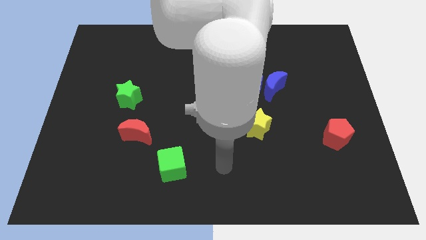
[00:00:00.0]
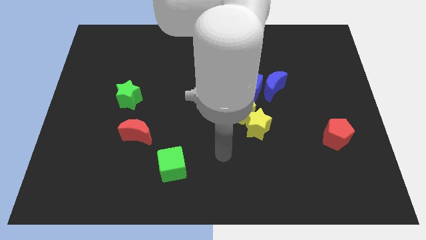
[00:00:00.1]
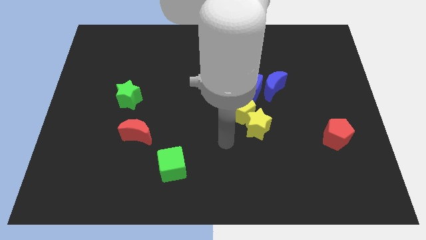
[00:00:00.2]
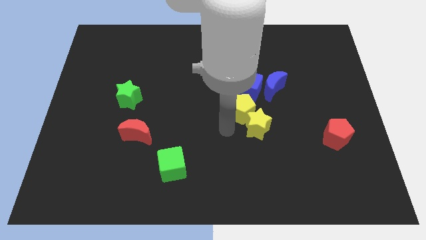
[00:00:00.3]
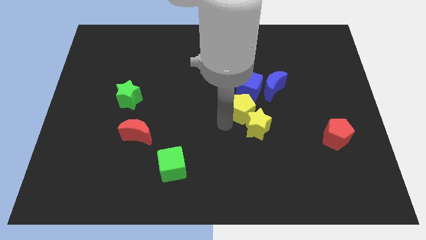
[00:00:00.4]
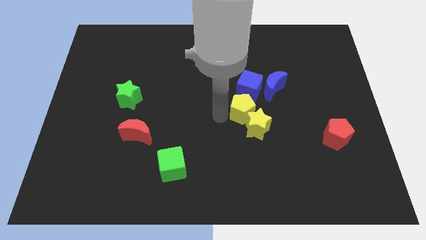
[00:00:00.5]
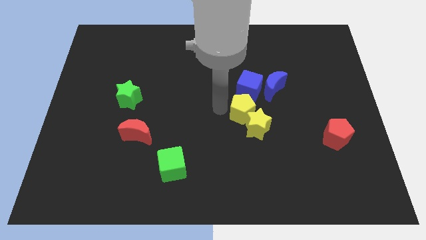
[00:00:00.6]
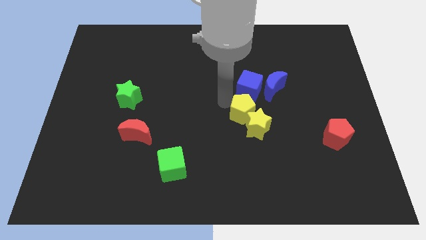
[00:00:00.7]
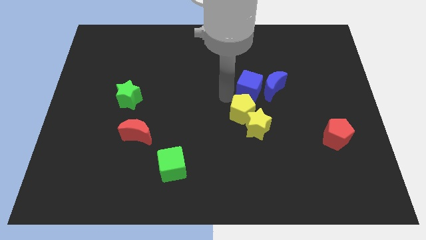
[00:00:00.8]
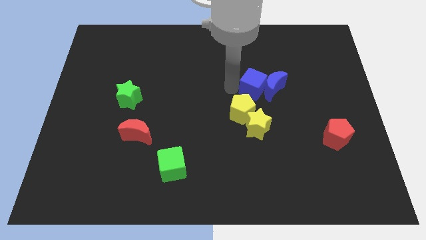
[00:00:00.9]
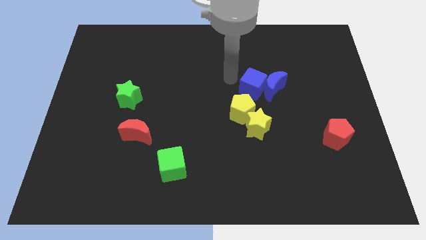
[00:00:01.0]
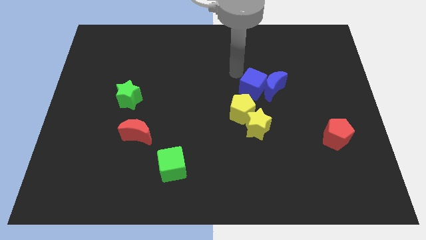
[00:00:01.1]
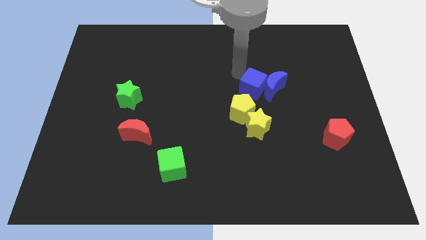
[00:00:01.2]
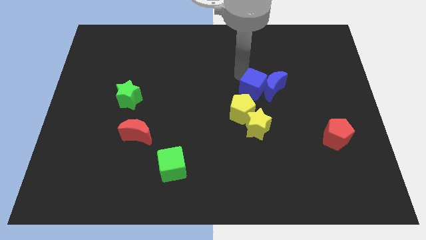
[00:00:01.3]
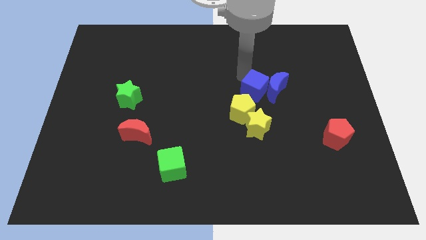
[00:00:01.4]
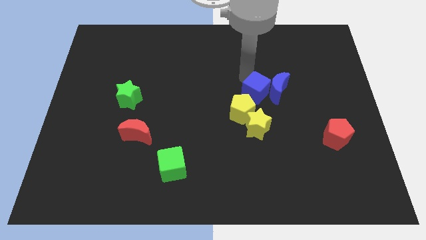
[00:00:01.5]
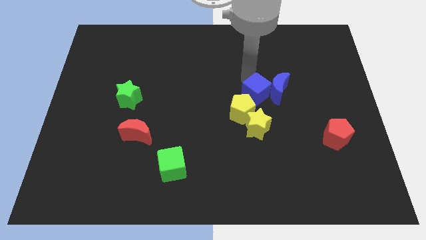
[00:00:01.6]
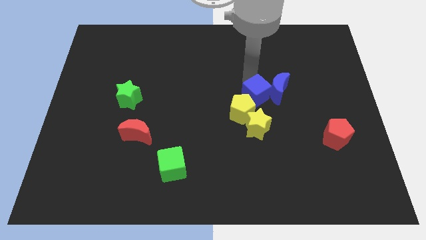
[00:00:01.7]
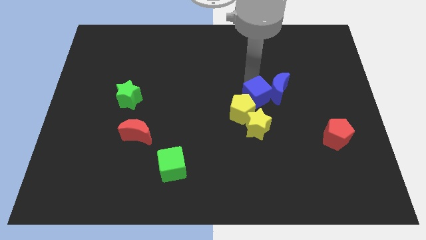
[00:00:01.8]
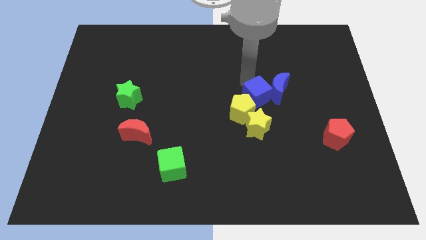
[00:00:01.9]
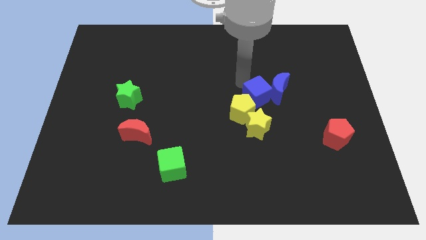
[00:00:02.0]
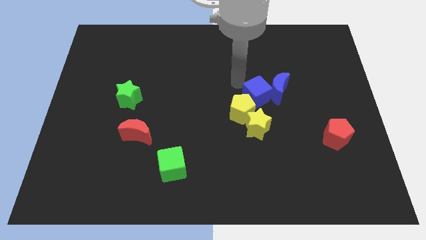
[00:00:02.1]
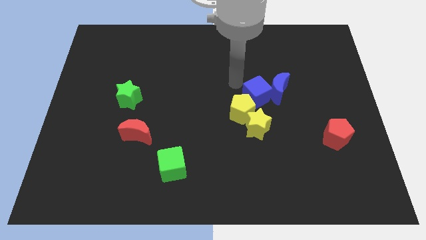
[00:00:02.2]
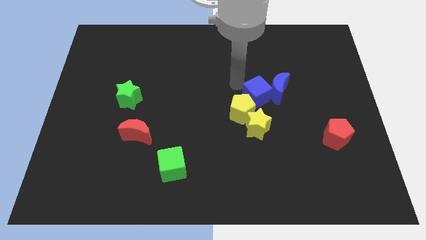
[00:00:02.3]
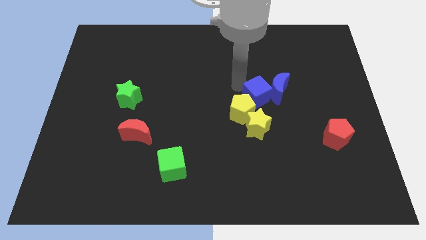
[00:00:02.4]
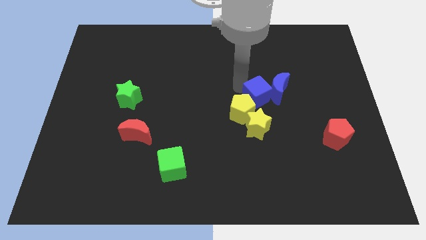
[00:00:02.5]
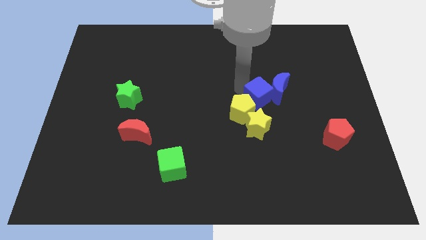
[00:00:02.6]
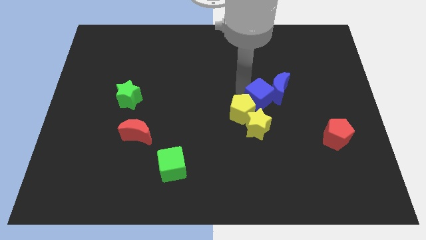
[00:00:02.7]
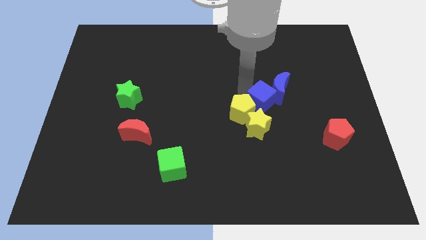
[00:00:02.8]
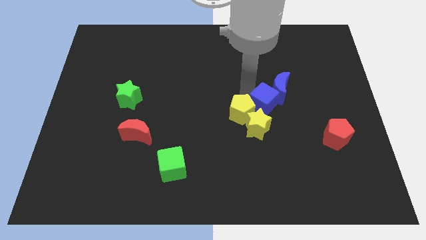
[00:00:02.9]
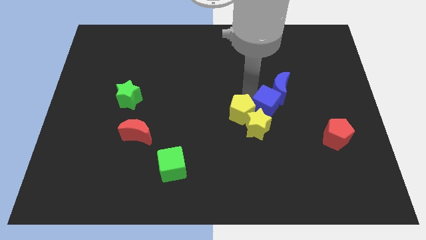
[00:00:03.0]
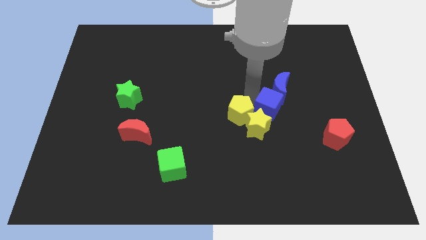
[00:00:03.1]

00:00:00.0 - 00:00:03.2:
slightly push the blue cube down and to the right diagonally

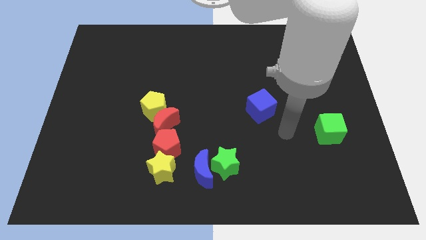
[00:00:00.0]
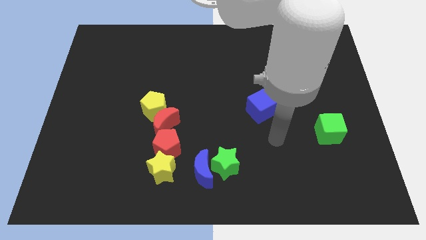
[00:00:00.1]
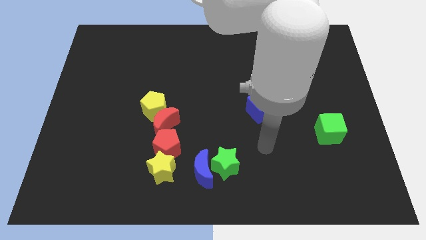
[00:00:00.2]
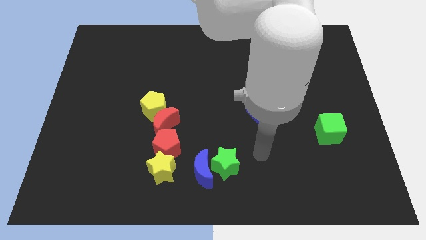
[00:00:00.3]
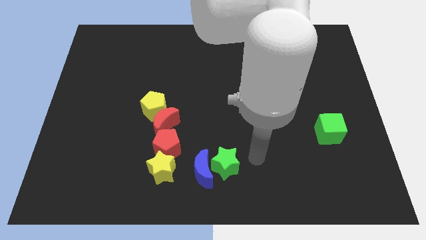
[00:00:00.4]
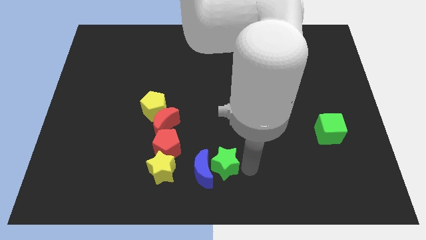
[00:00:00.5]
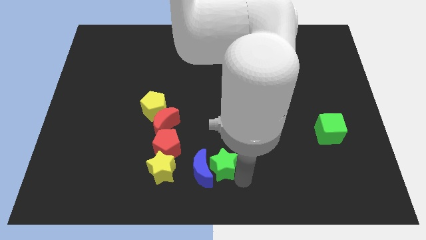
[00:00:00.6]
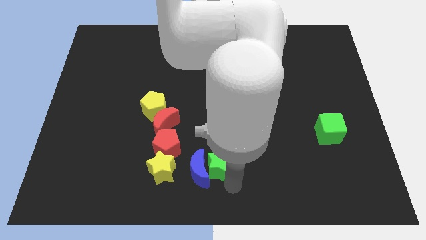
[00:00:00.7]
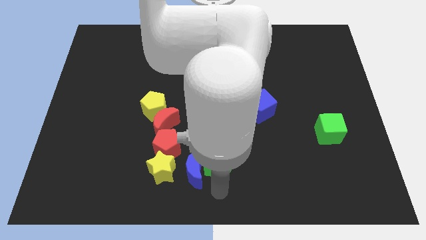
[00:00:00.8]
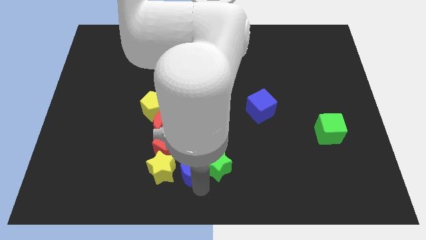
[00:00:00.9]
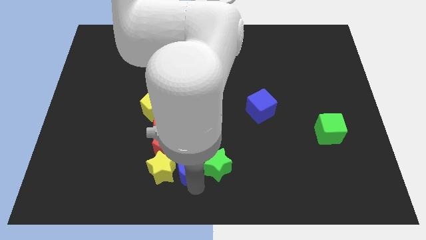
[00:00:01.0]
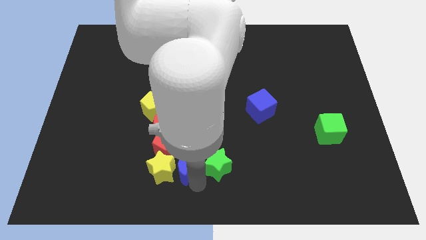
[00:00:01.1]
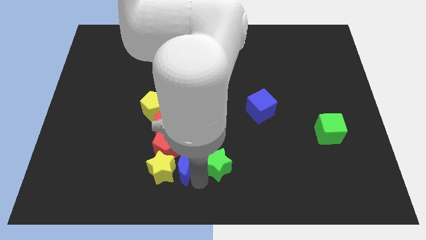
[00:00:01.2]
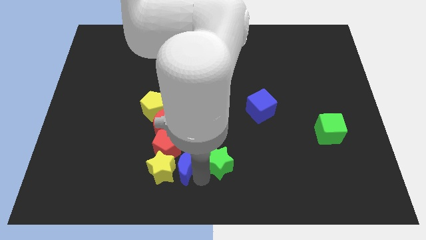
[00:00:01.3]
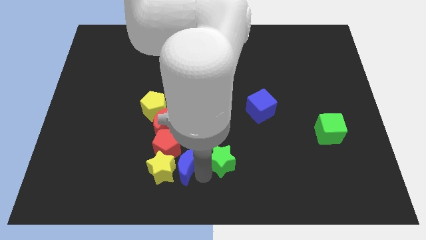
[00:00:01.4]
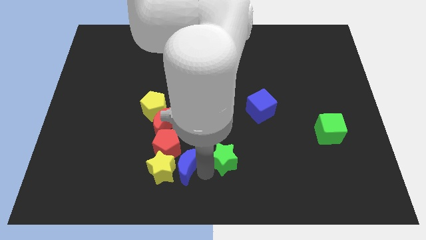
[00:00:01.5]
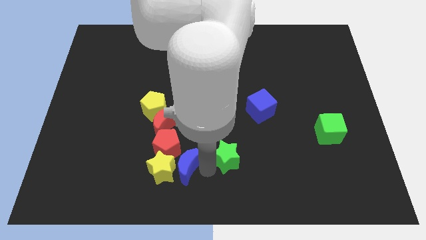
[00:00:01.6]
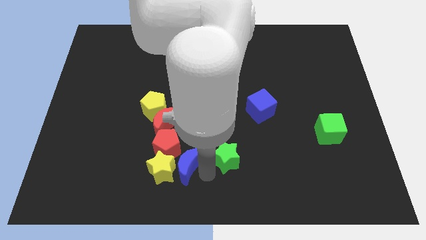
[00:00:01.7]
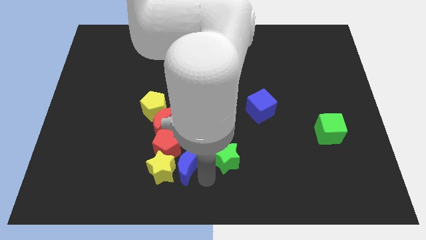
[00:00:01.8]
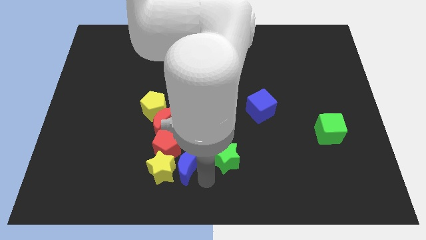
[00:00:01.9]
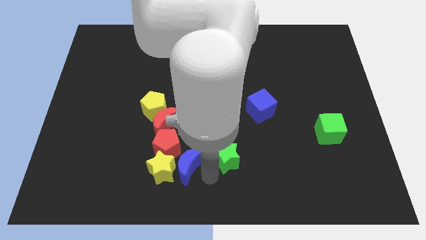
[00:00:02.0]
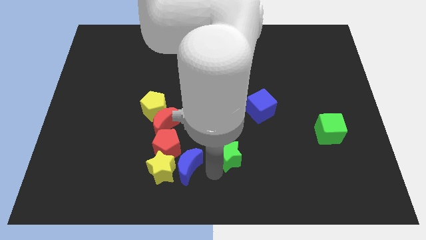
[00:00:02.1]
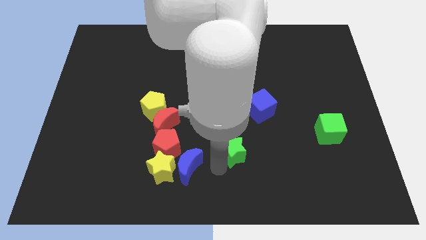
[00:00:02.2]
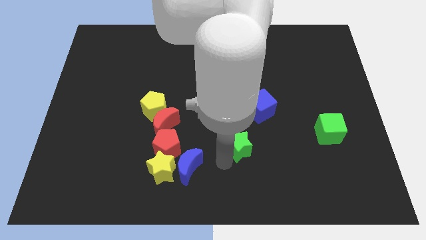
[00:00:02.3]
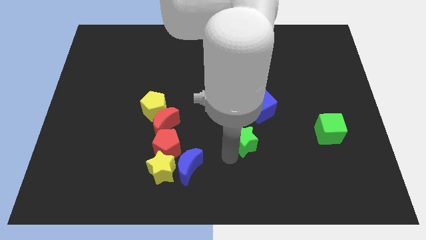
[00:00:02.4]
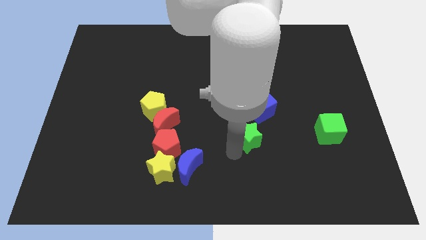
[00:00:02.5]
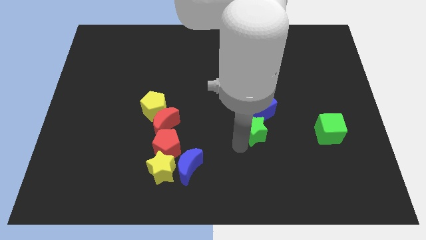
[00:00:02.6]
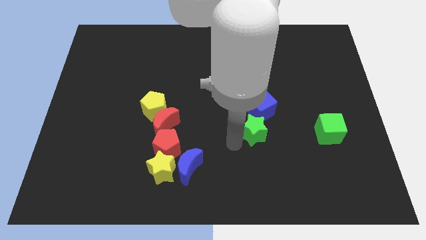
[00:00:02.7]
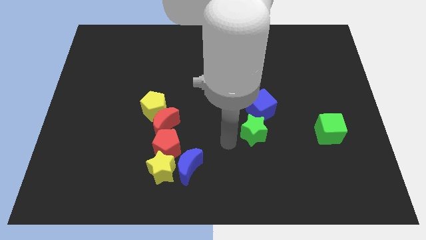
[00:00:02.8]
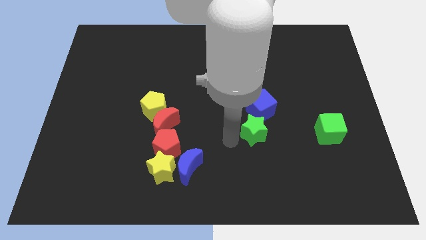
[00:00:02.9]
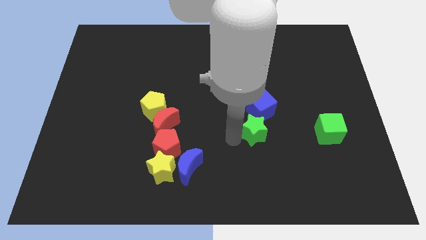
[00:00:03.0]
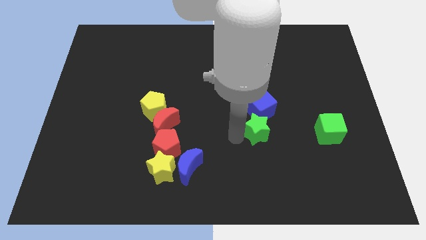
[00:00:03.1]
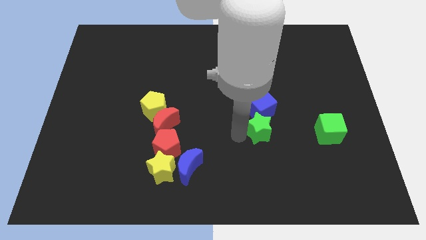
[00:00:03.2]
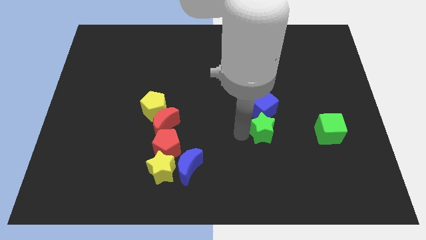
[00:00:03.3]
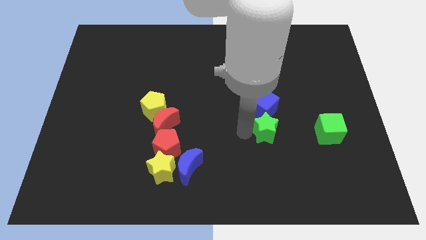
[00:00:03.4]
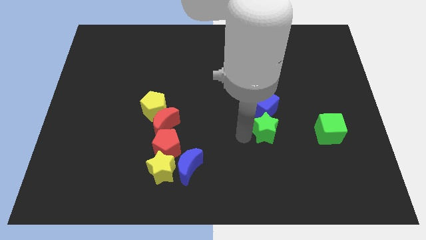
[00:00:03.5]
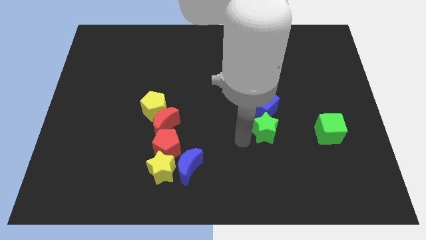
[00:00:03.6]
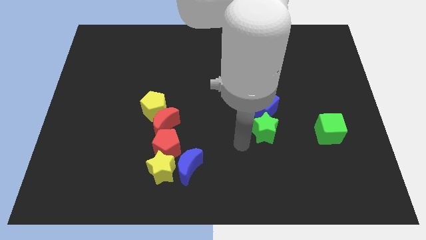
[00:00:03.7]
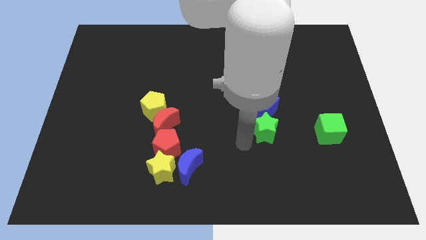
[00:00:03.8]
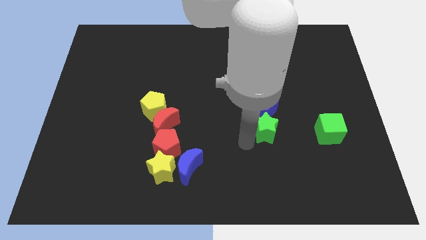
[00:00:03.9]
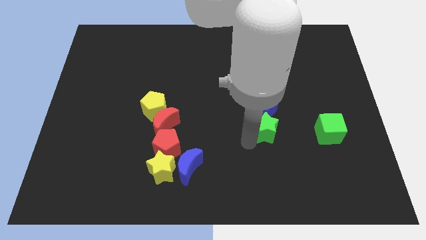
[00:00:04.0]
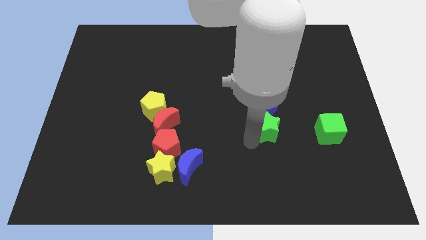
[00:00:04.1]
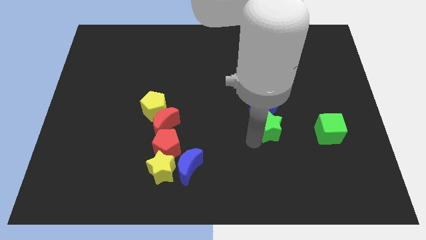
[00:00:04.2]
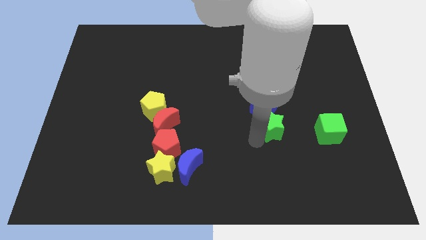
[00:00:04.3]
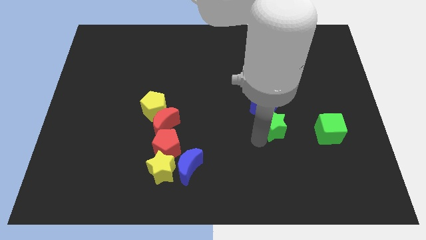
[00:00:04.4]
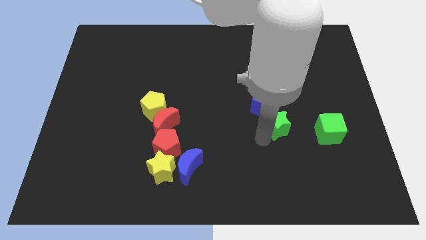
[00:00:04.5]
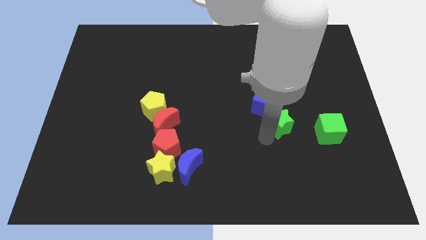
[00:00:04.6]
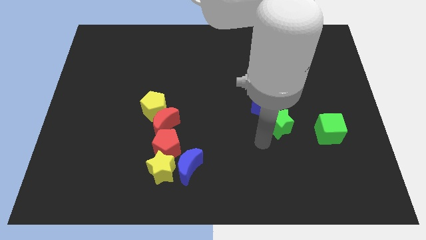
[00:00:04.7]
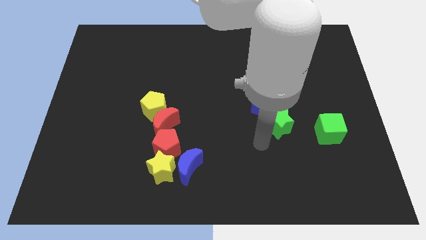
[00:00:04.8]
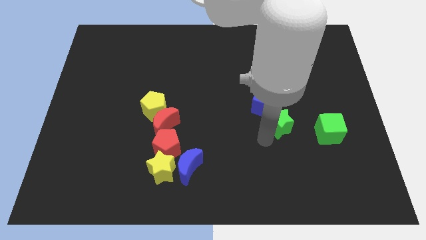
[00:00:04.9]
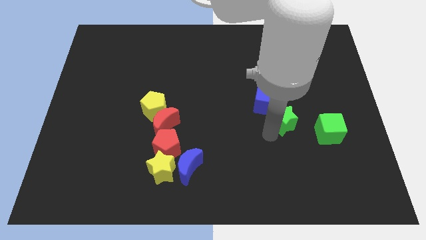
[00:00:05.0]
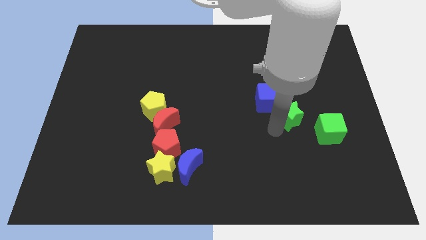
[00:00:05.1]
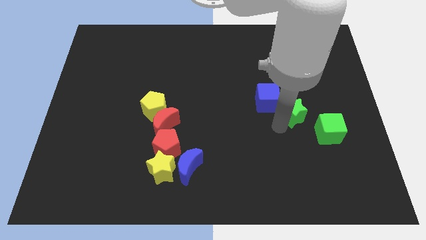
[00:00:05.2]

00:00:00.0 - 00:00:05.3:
slide the green star up and to the right
